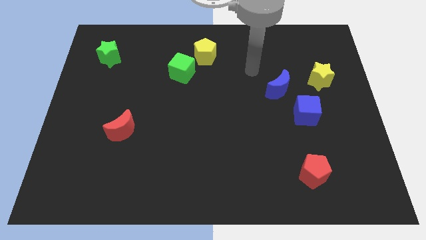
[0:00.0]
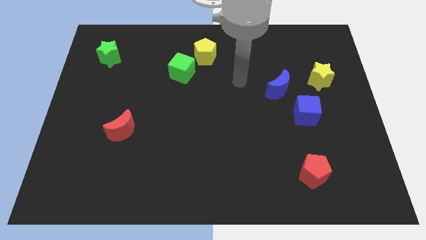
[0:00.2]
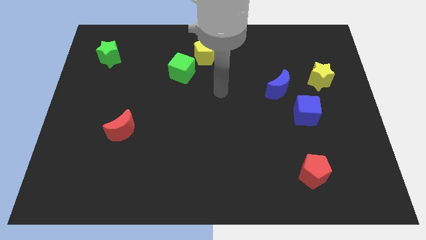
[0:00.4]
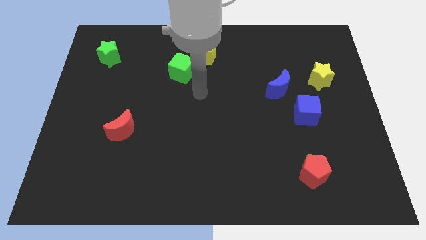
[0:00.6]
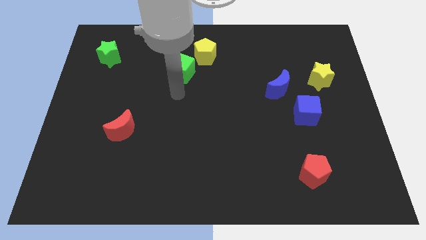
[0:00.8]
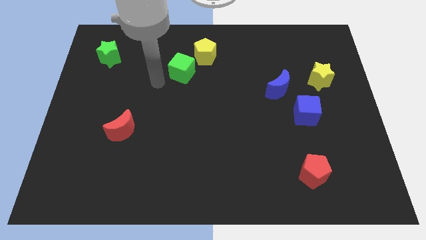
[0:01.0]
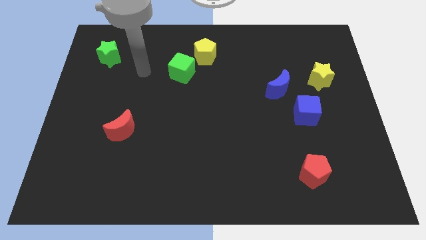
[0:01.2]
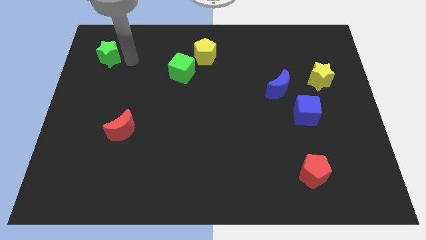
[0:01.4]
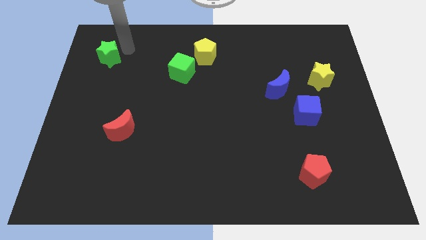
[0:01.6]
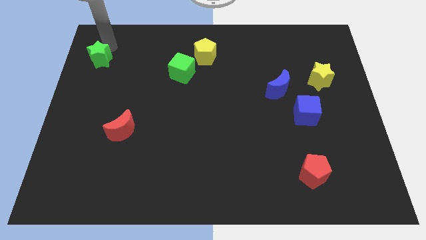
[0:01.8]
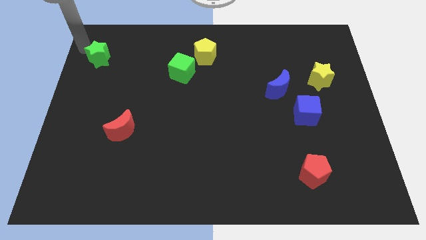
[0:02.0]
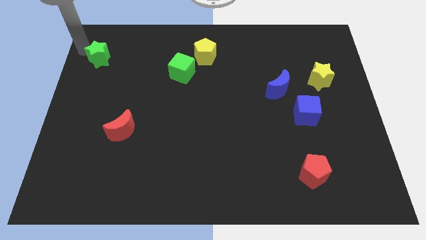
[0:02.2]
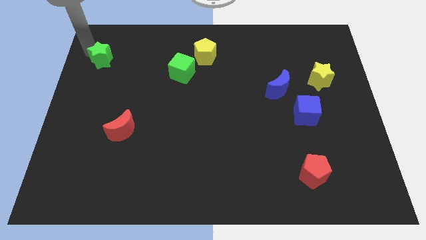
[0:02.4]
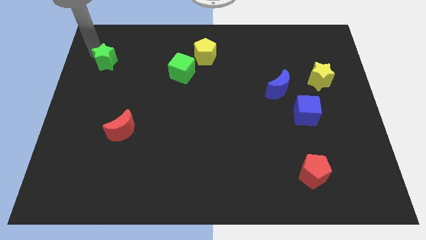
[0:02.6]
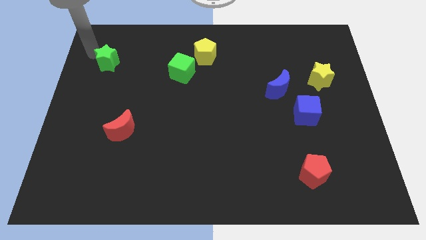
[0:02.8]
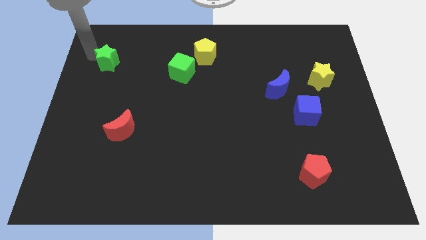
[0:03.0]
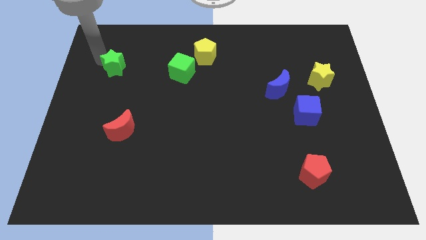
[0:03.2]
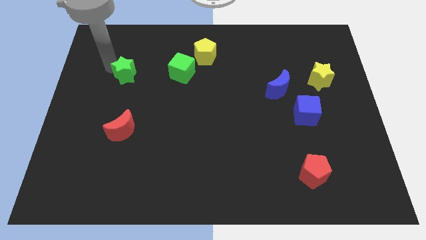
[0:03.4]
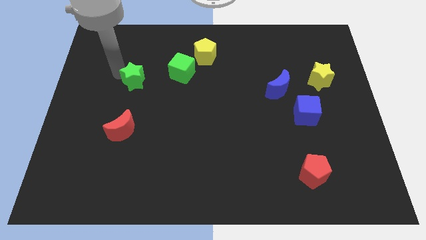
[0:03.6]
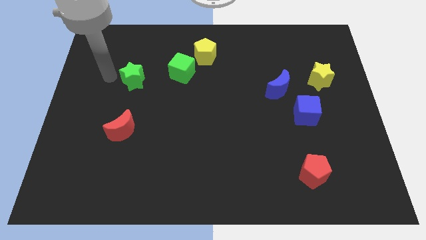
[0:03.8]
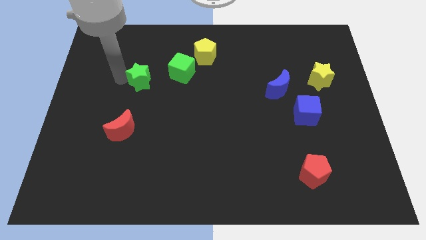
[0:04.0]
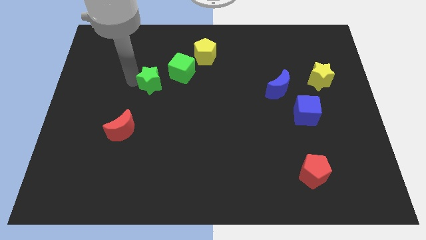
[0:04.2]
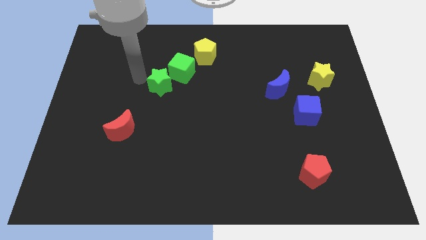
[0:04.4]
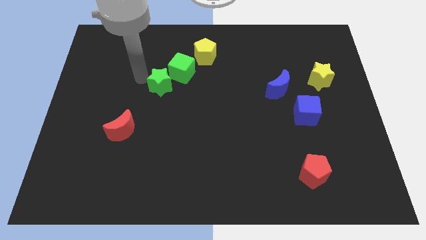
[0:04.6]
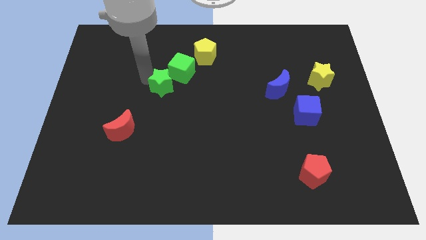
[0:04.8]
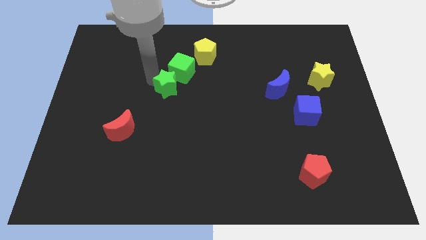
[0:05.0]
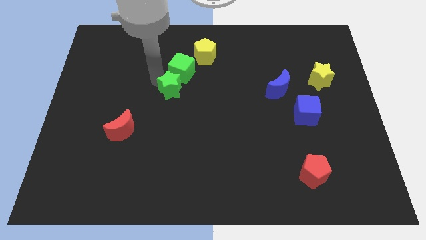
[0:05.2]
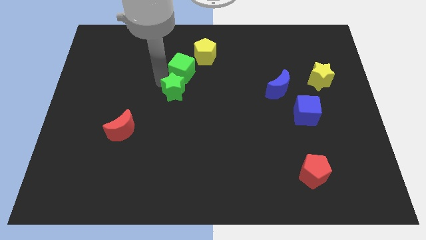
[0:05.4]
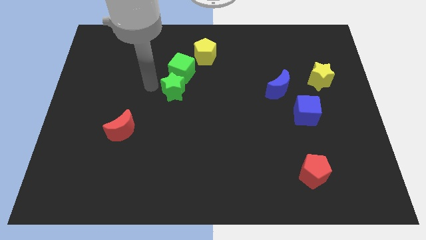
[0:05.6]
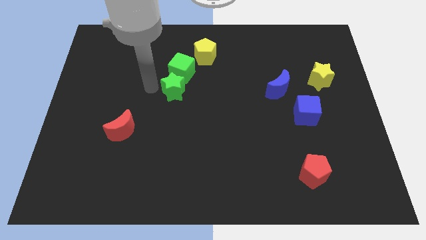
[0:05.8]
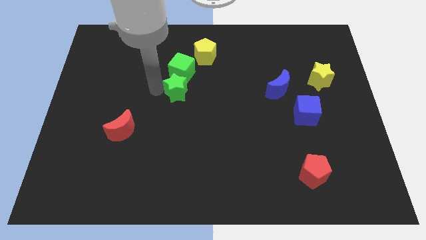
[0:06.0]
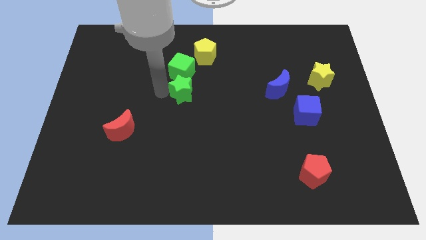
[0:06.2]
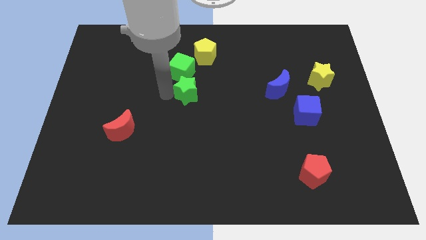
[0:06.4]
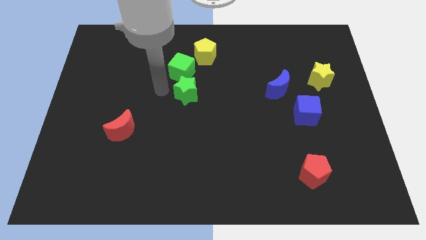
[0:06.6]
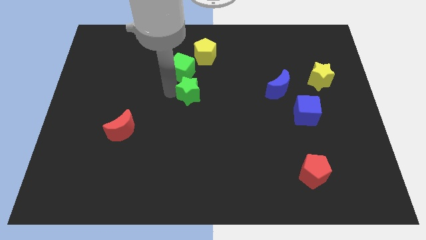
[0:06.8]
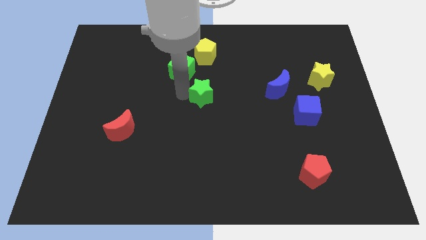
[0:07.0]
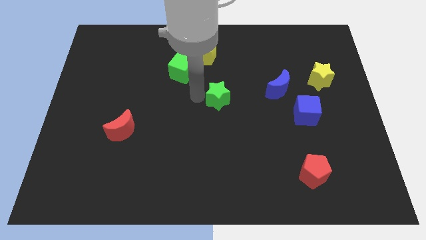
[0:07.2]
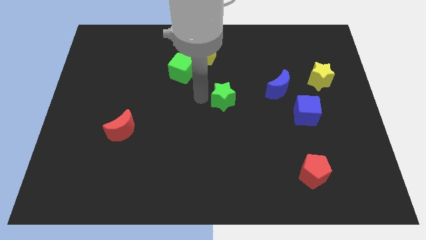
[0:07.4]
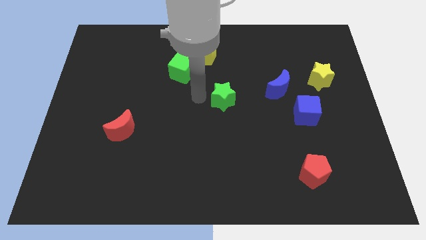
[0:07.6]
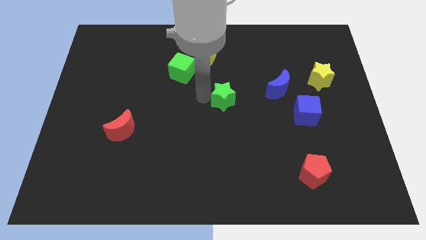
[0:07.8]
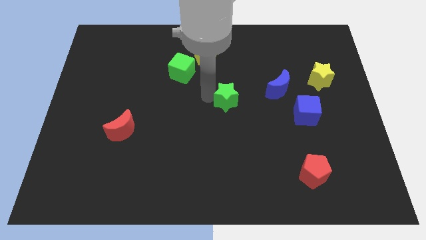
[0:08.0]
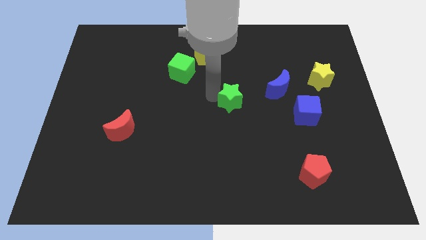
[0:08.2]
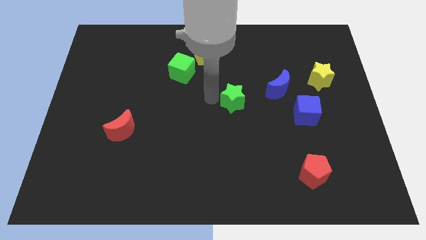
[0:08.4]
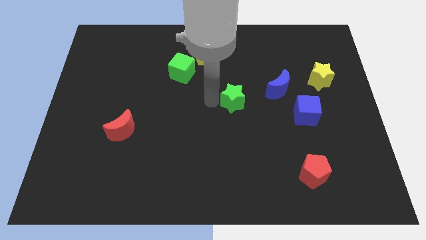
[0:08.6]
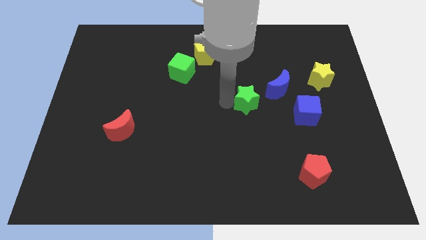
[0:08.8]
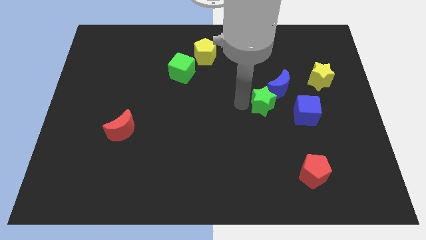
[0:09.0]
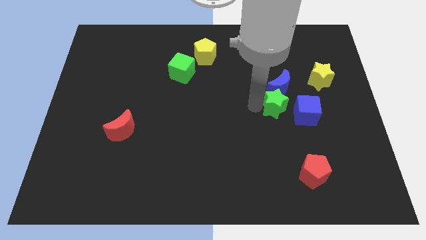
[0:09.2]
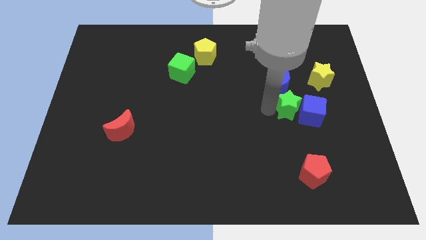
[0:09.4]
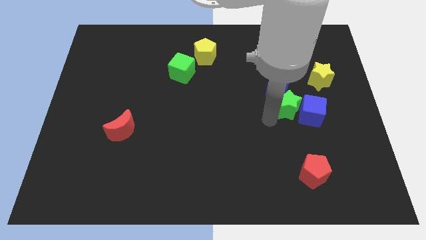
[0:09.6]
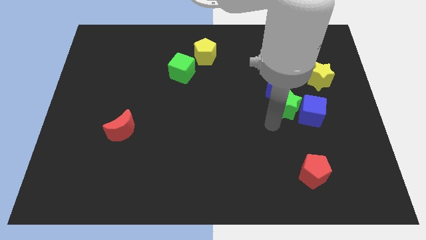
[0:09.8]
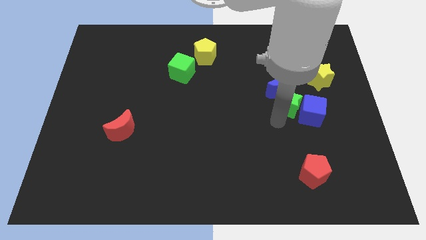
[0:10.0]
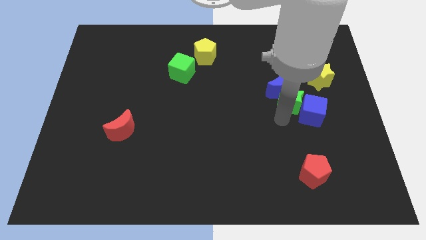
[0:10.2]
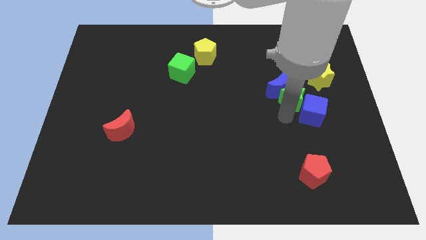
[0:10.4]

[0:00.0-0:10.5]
push the green star to the right side of the blue moon

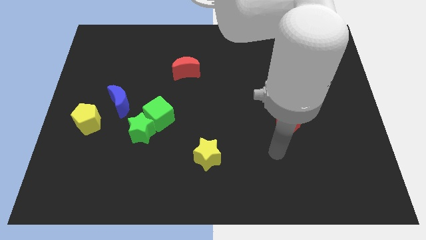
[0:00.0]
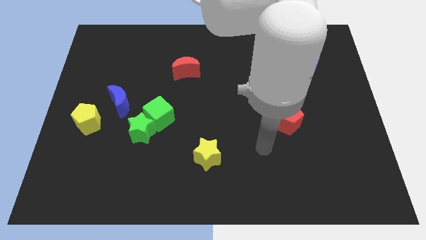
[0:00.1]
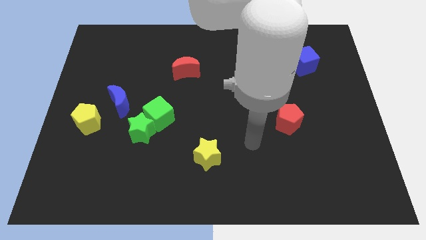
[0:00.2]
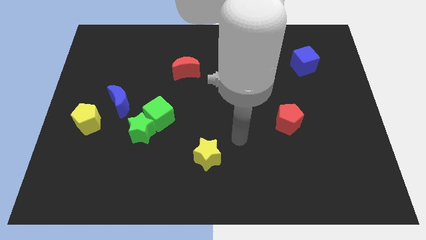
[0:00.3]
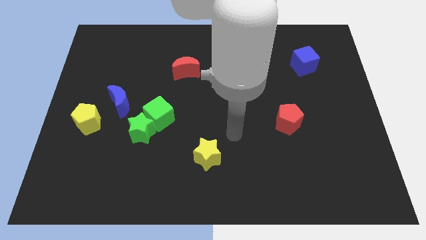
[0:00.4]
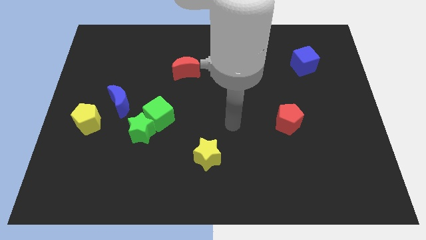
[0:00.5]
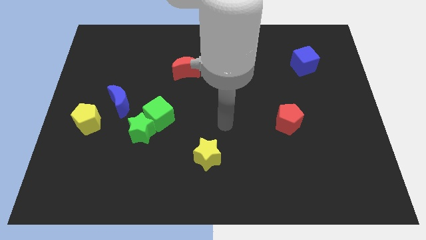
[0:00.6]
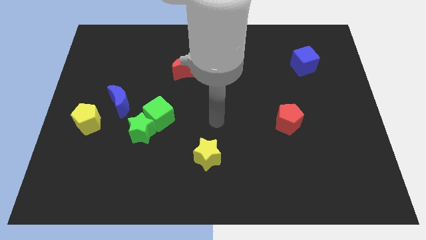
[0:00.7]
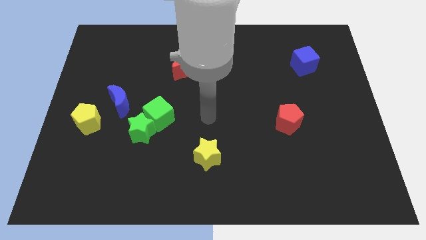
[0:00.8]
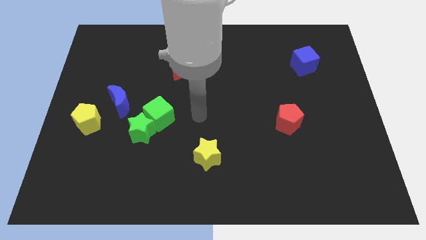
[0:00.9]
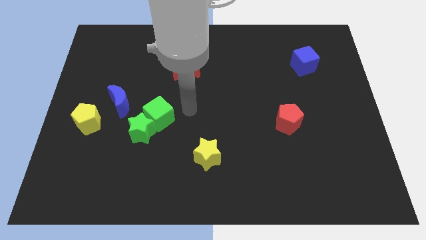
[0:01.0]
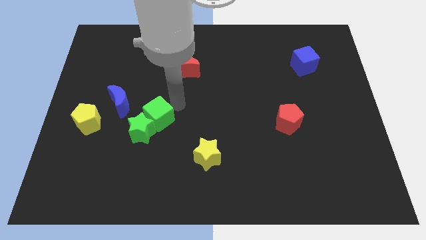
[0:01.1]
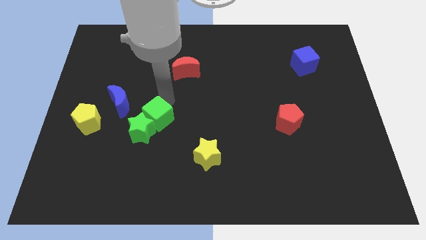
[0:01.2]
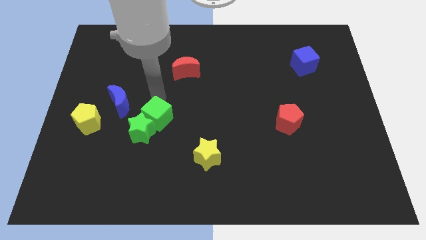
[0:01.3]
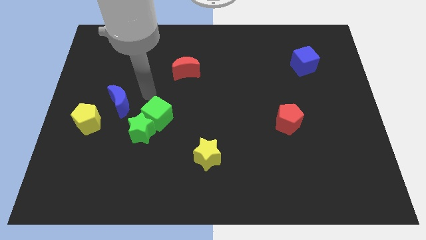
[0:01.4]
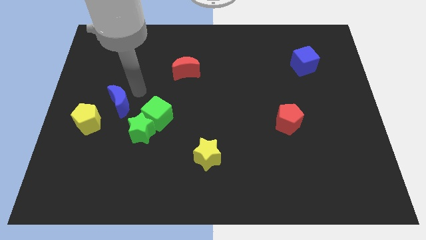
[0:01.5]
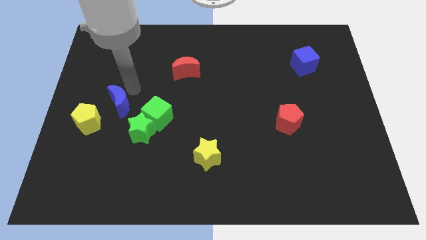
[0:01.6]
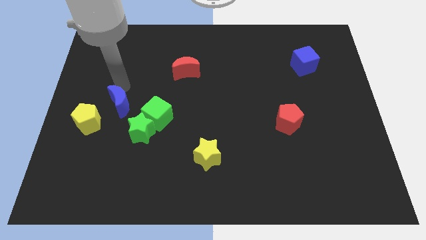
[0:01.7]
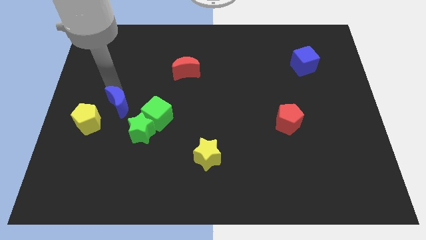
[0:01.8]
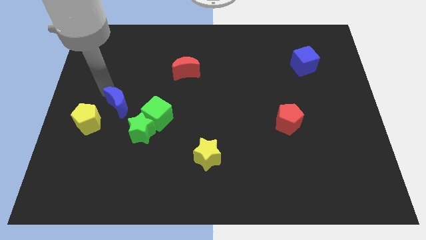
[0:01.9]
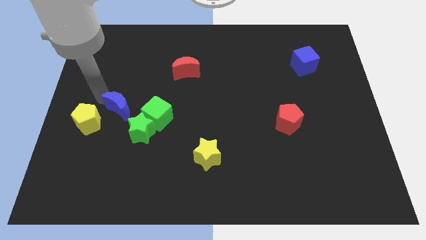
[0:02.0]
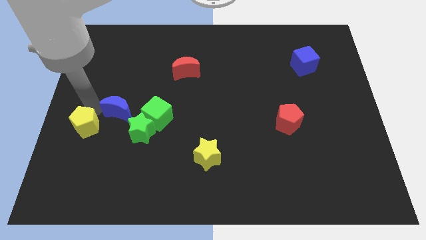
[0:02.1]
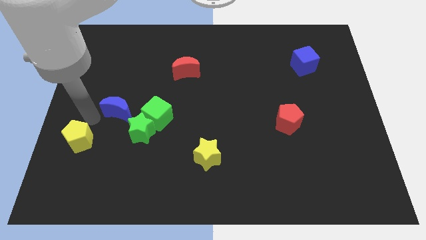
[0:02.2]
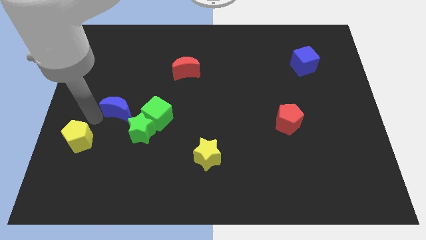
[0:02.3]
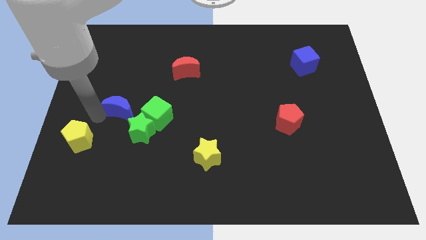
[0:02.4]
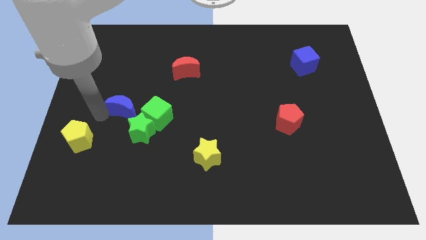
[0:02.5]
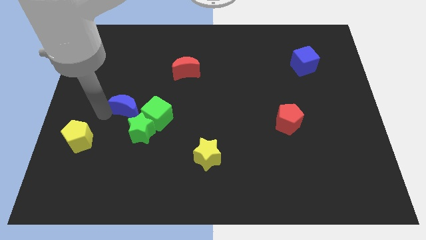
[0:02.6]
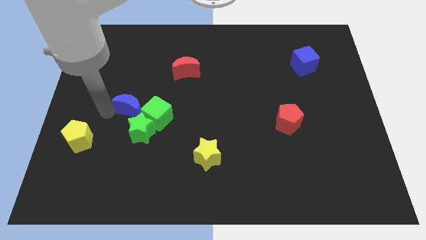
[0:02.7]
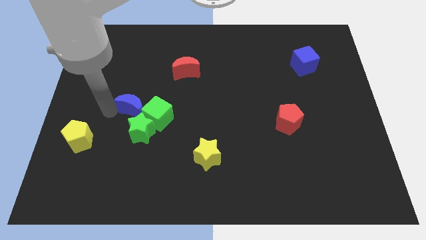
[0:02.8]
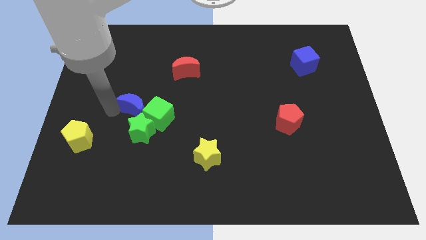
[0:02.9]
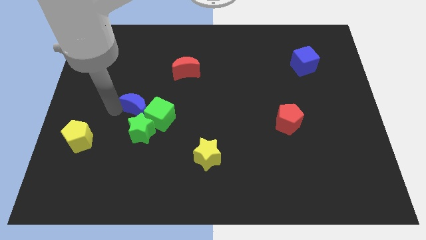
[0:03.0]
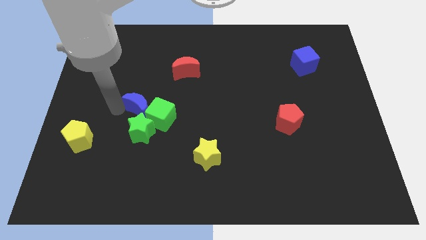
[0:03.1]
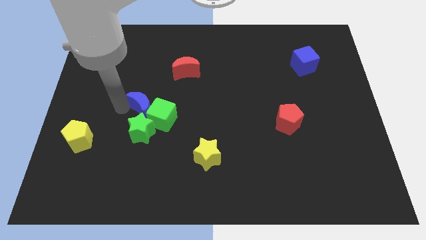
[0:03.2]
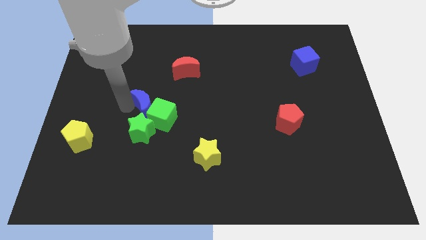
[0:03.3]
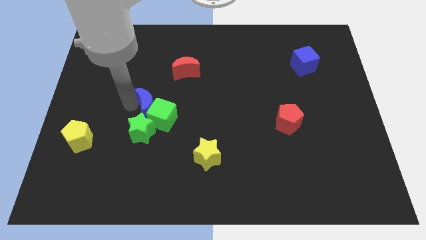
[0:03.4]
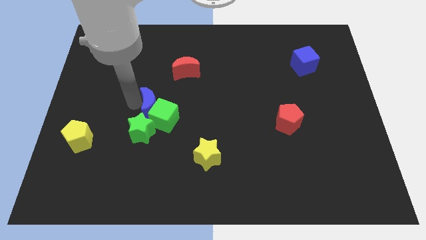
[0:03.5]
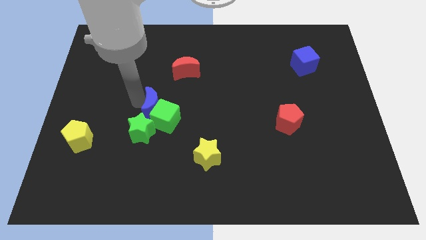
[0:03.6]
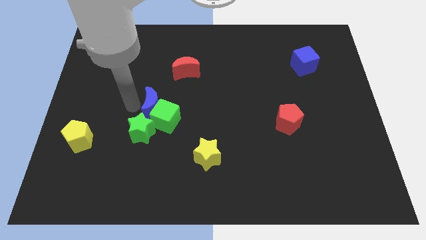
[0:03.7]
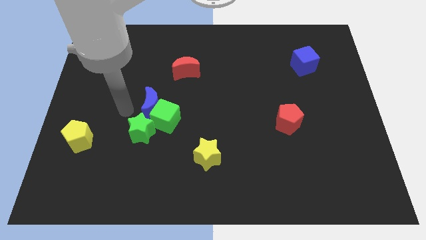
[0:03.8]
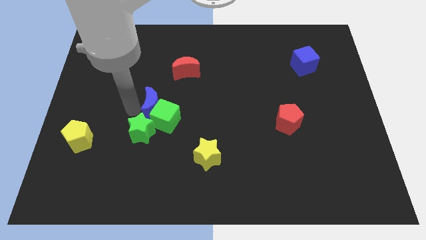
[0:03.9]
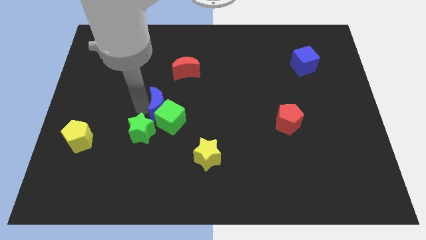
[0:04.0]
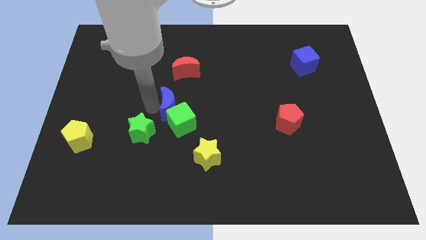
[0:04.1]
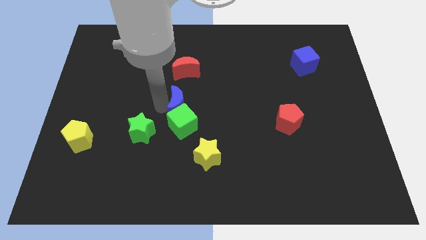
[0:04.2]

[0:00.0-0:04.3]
put the blue moon to the top right of the green cube
